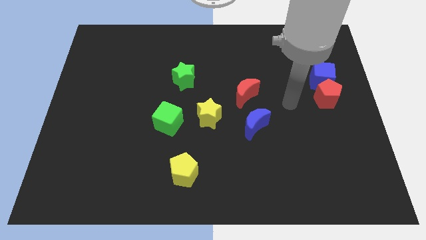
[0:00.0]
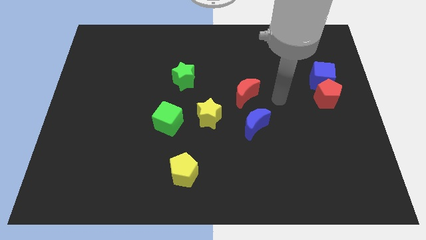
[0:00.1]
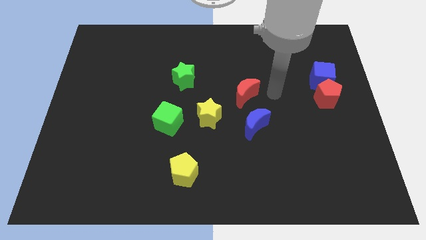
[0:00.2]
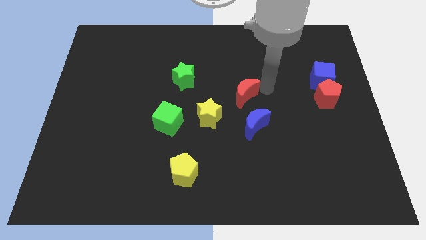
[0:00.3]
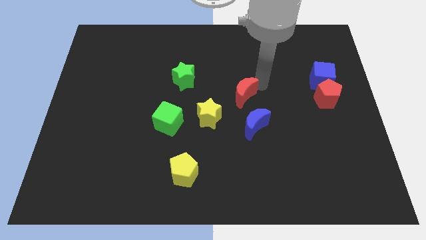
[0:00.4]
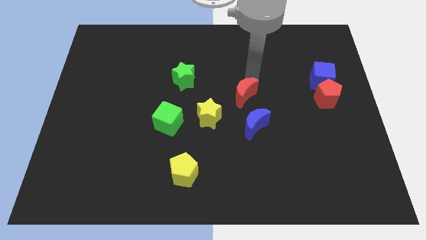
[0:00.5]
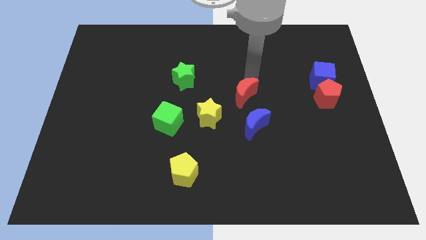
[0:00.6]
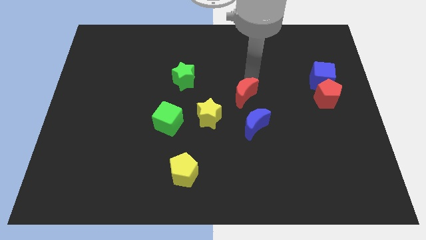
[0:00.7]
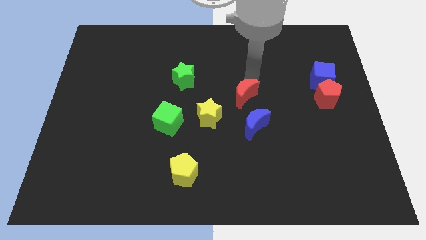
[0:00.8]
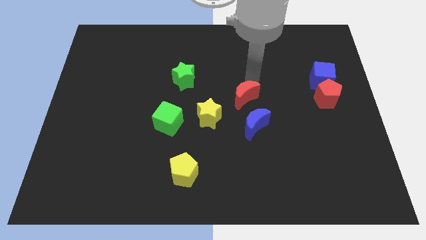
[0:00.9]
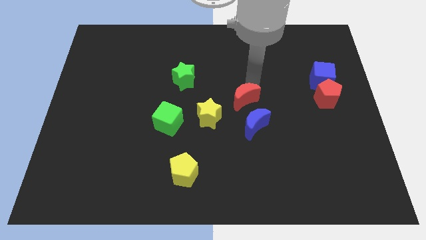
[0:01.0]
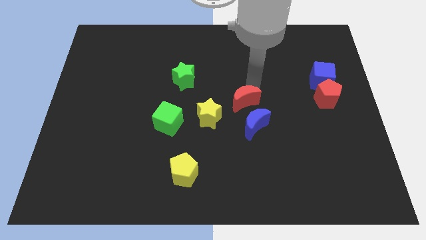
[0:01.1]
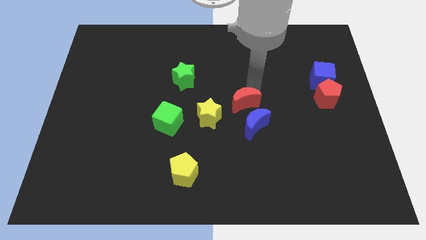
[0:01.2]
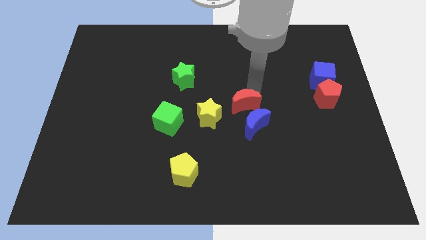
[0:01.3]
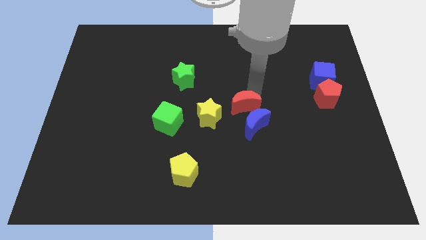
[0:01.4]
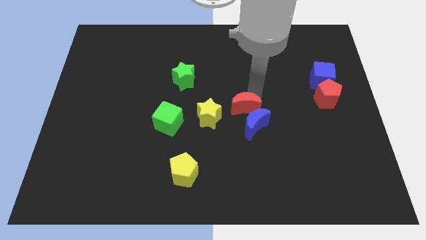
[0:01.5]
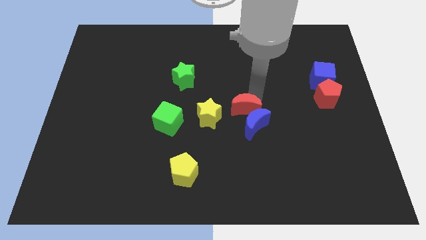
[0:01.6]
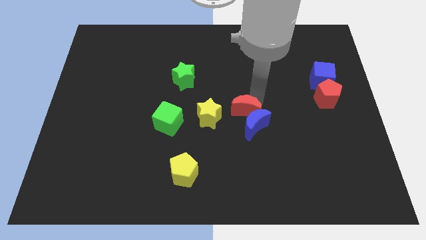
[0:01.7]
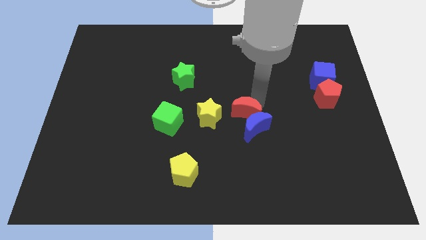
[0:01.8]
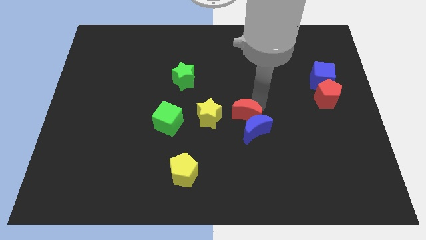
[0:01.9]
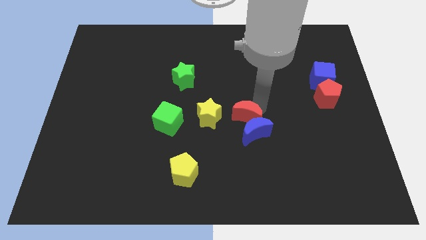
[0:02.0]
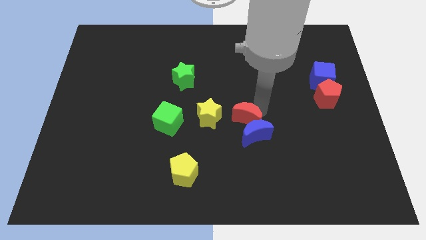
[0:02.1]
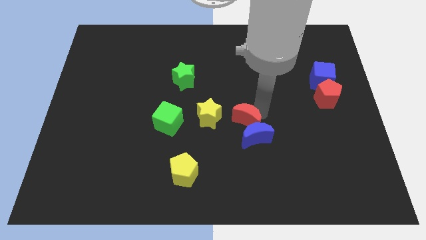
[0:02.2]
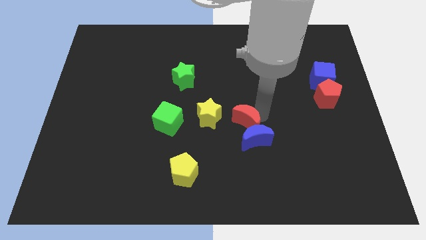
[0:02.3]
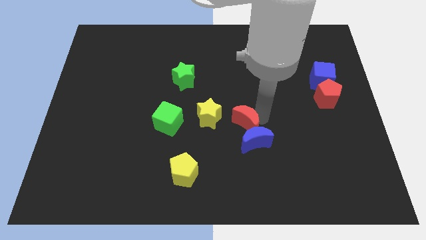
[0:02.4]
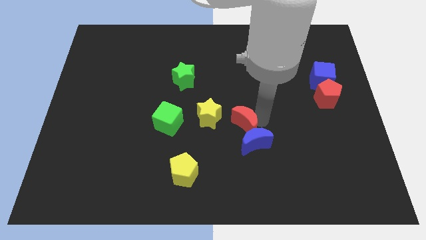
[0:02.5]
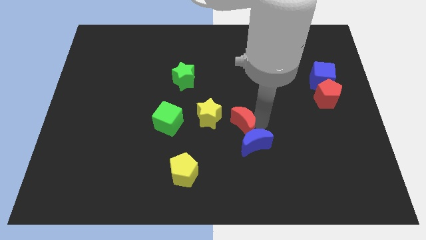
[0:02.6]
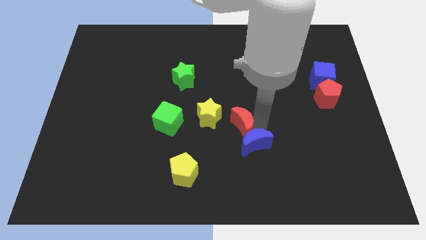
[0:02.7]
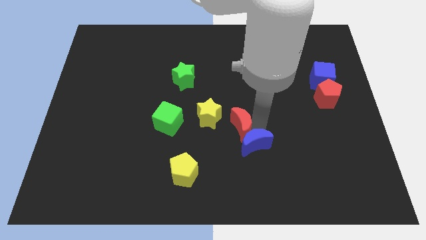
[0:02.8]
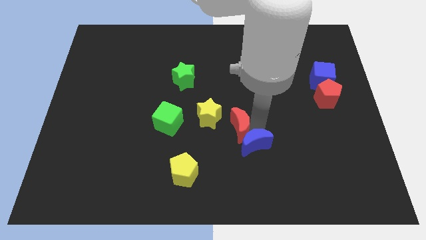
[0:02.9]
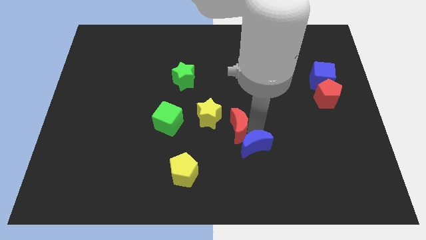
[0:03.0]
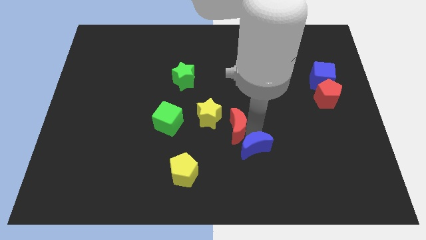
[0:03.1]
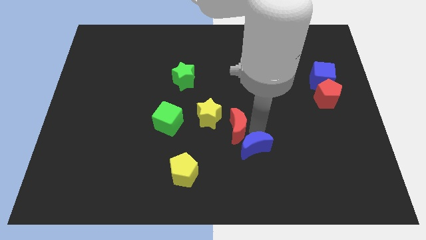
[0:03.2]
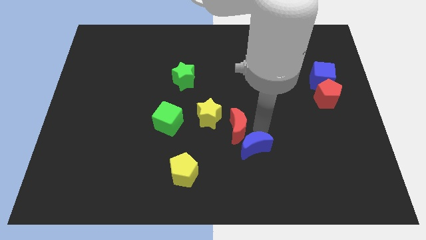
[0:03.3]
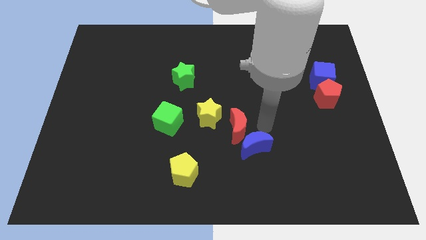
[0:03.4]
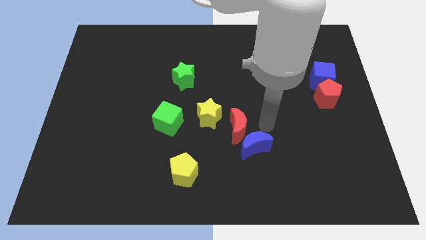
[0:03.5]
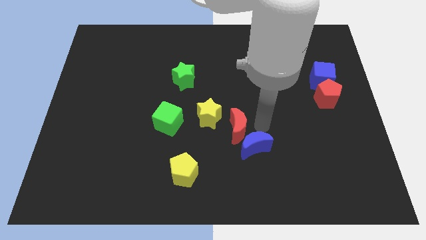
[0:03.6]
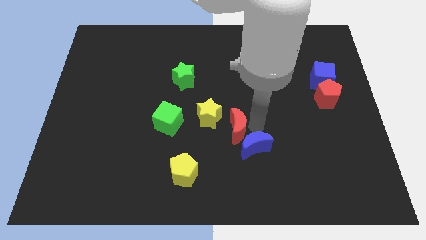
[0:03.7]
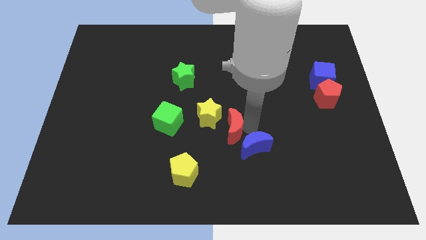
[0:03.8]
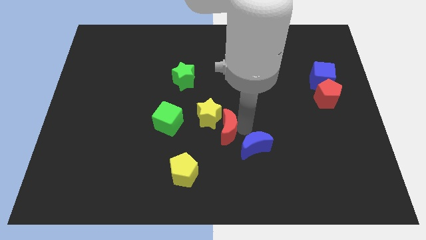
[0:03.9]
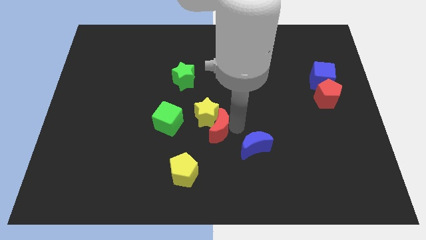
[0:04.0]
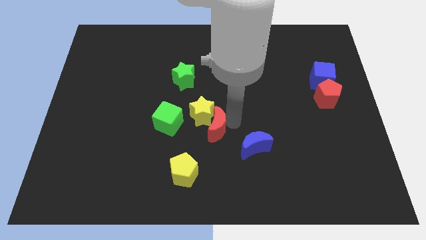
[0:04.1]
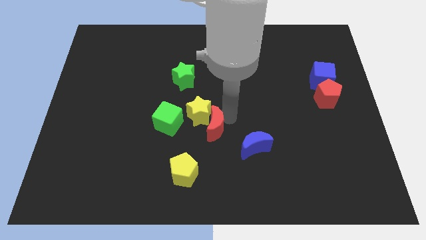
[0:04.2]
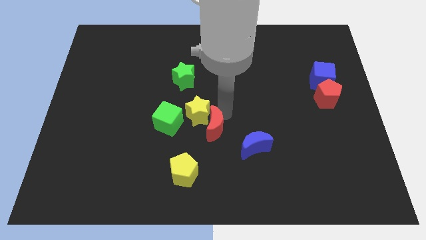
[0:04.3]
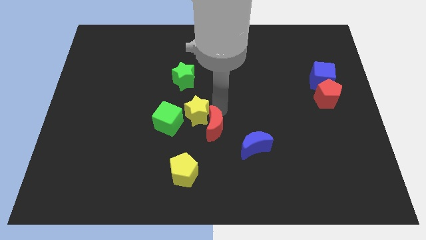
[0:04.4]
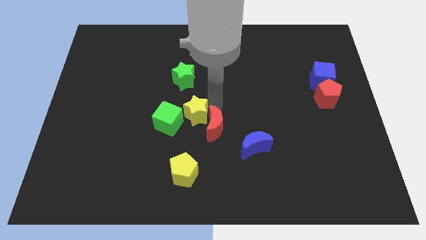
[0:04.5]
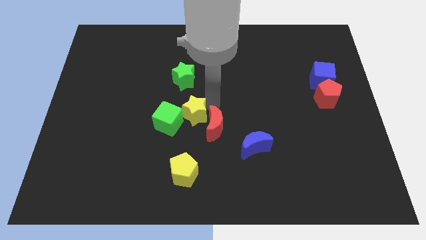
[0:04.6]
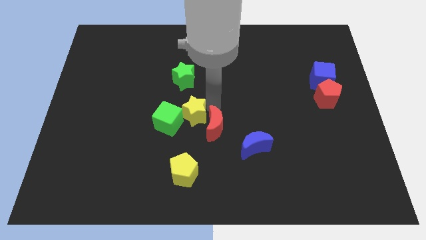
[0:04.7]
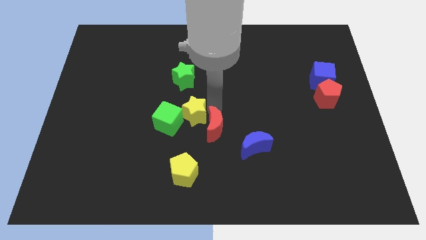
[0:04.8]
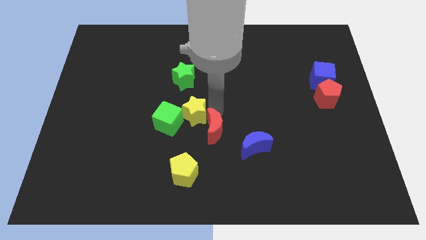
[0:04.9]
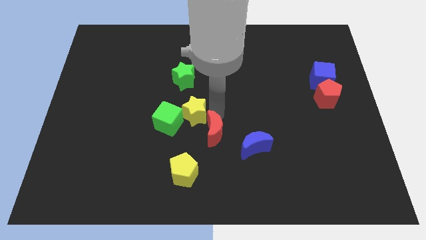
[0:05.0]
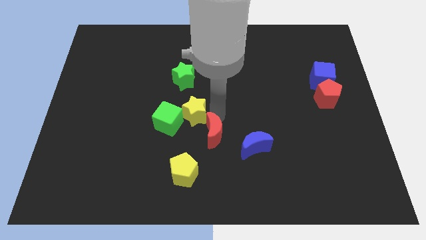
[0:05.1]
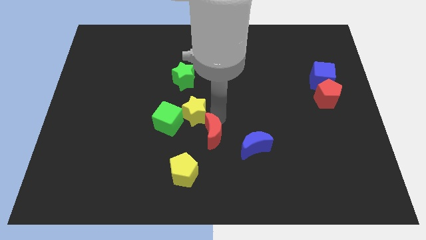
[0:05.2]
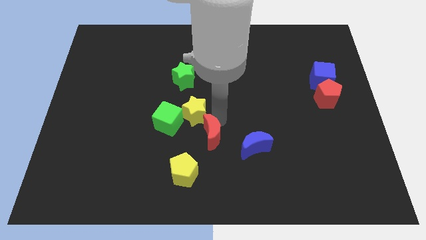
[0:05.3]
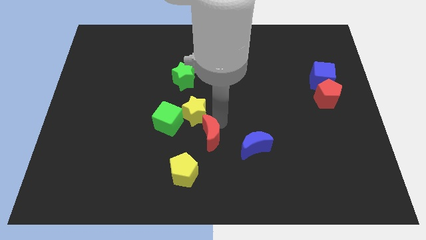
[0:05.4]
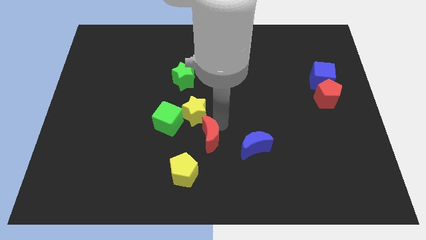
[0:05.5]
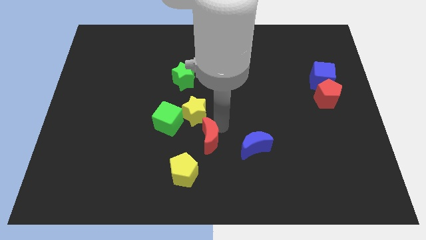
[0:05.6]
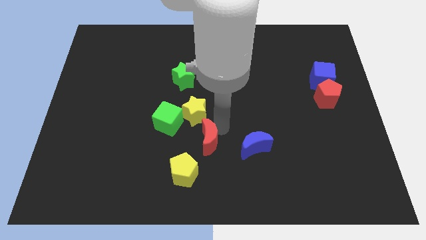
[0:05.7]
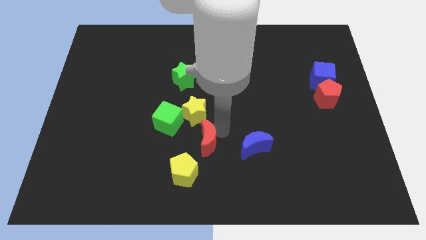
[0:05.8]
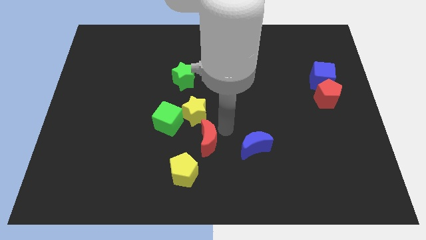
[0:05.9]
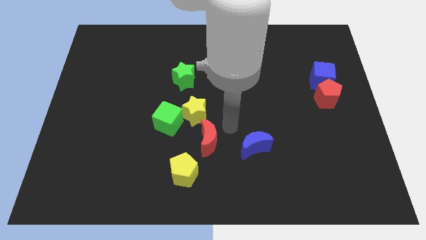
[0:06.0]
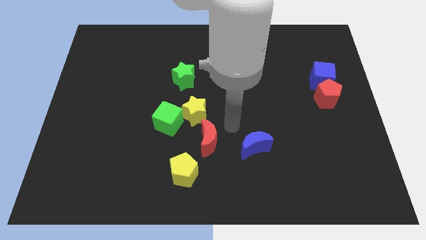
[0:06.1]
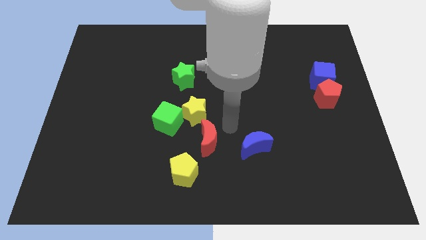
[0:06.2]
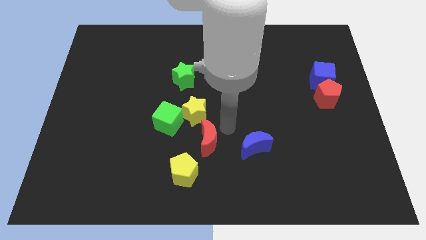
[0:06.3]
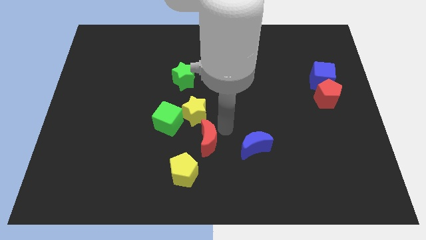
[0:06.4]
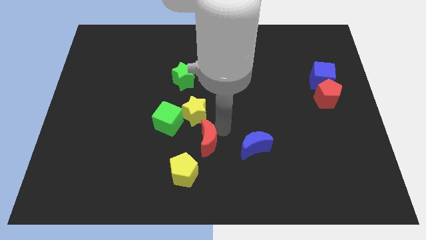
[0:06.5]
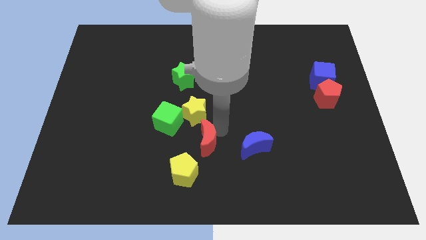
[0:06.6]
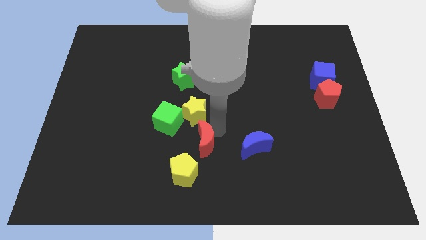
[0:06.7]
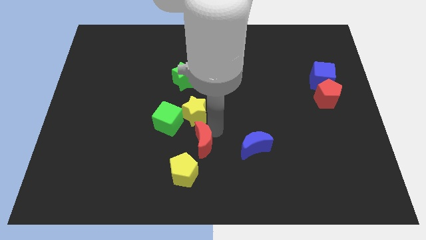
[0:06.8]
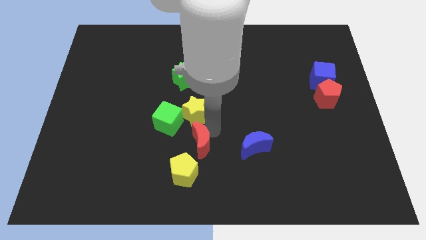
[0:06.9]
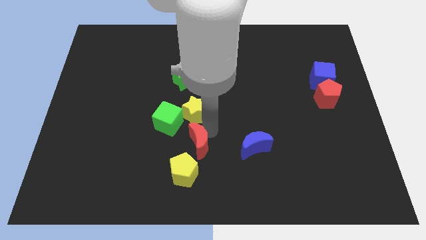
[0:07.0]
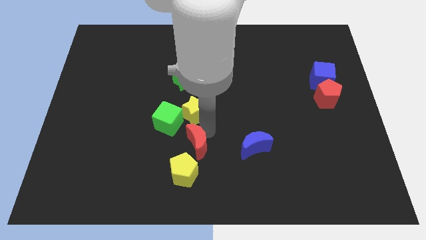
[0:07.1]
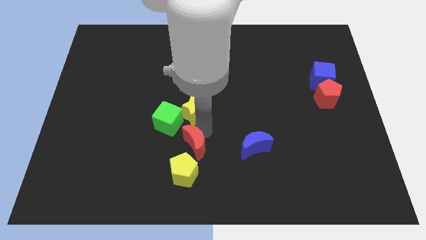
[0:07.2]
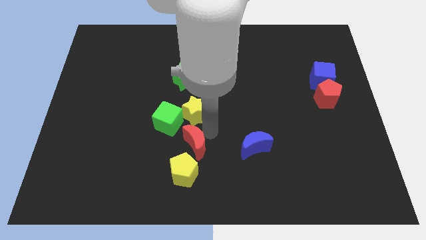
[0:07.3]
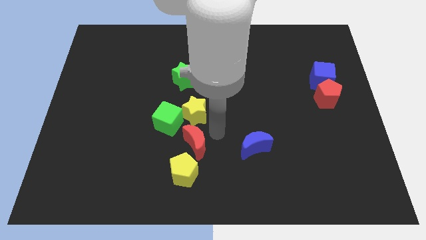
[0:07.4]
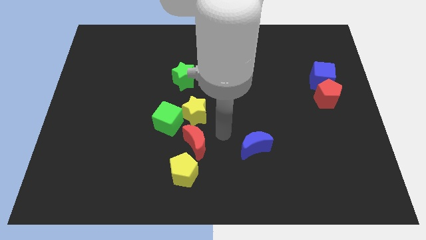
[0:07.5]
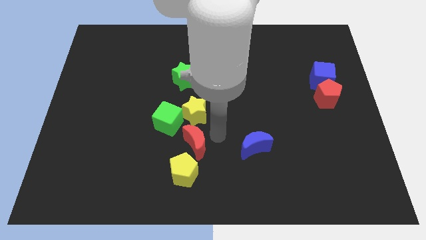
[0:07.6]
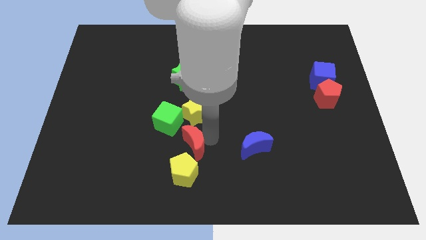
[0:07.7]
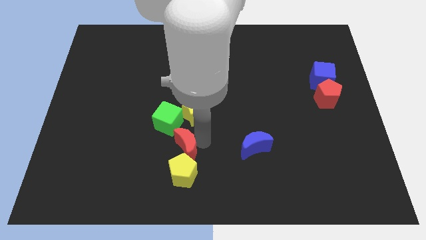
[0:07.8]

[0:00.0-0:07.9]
slide the red moon downwards and left diagonally
